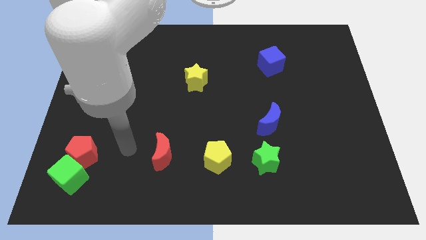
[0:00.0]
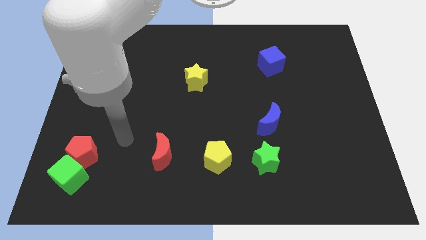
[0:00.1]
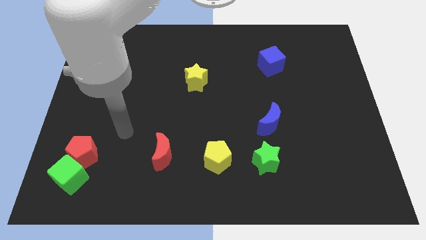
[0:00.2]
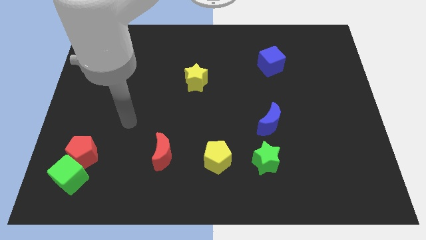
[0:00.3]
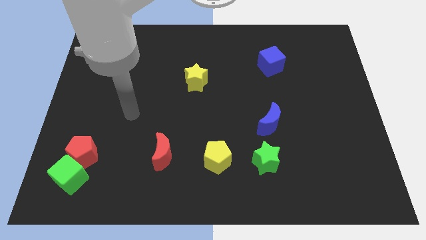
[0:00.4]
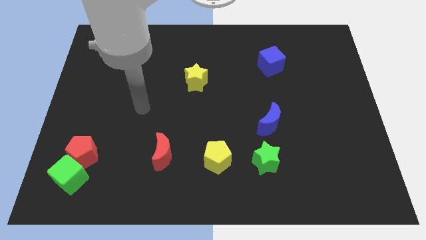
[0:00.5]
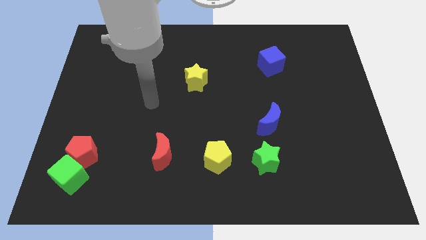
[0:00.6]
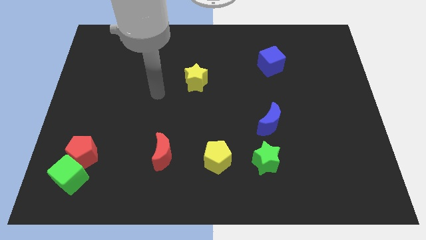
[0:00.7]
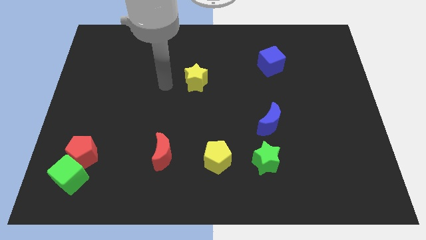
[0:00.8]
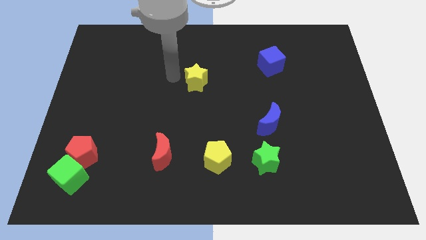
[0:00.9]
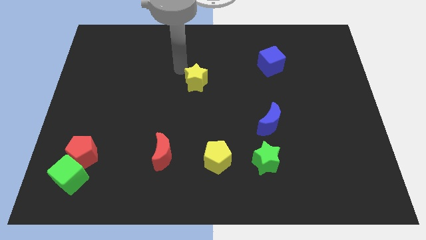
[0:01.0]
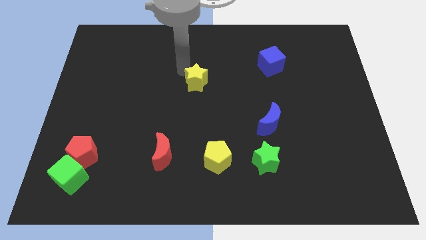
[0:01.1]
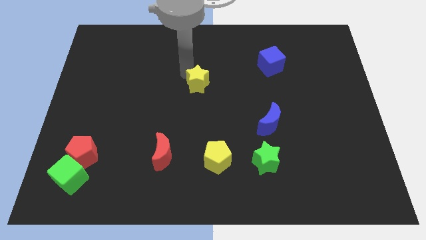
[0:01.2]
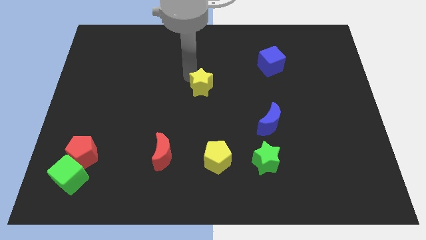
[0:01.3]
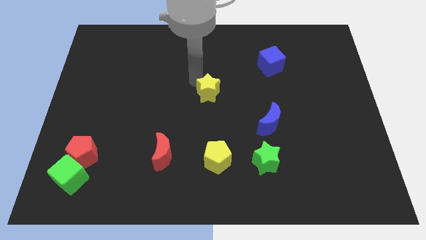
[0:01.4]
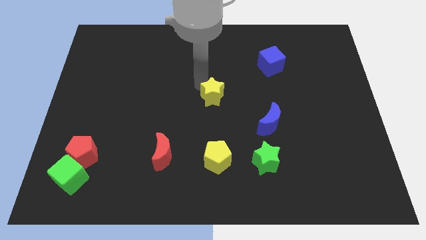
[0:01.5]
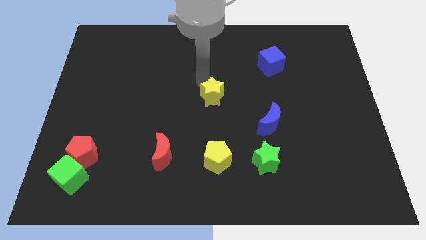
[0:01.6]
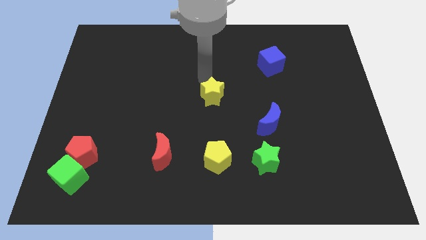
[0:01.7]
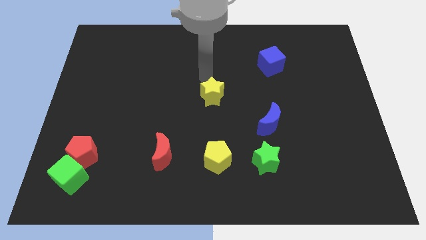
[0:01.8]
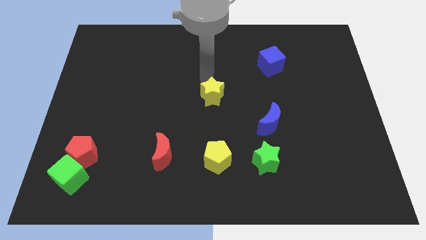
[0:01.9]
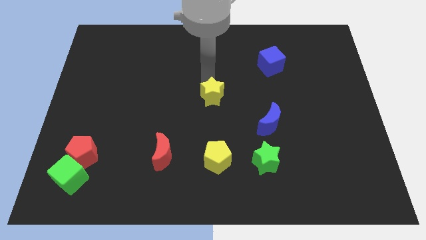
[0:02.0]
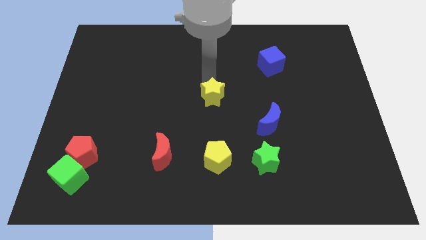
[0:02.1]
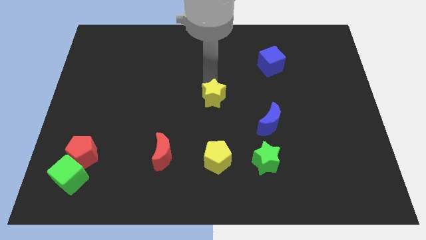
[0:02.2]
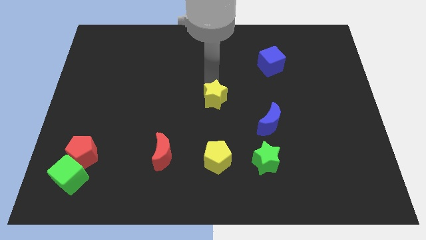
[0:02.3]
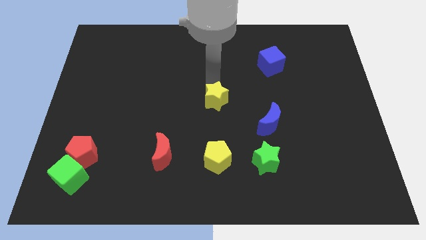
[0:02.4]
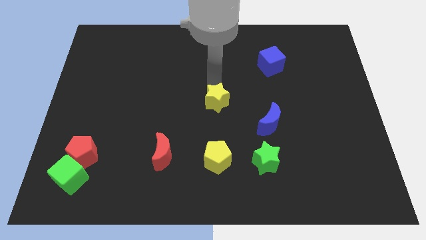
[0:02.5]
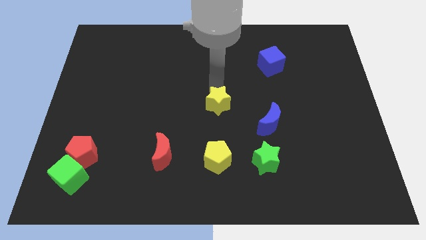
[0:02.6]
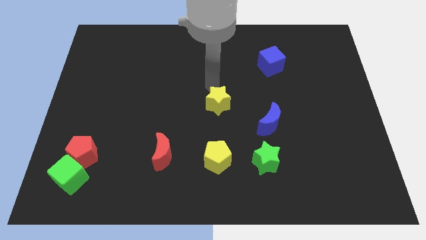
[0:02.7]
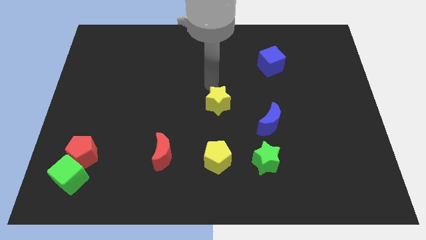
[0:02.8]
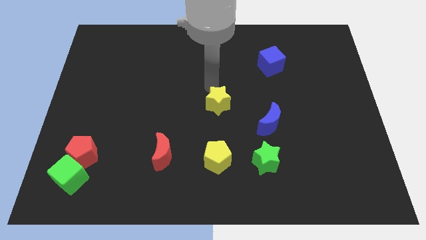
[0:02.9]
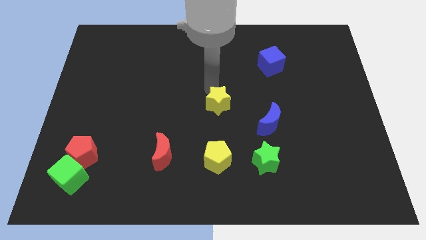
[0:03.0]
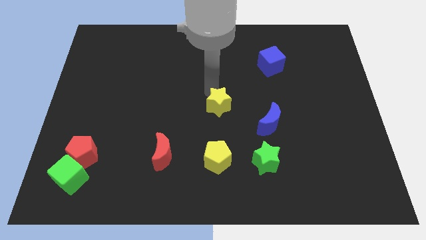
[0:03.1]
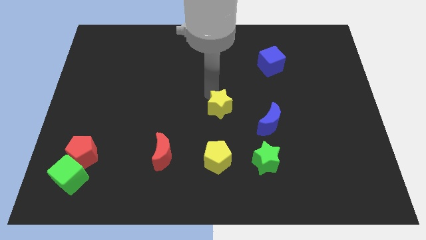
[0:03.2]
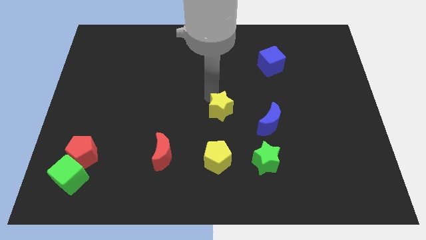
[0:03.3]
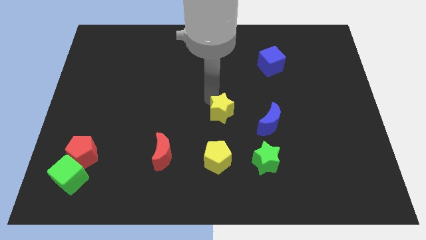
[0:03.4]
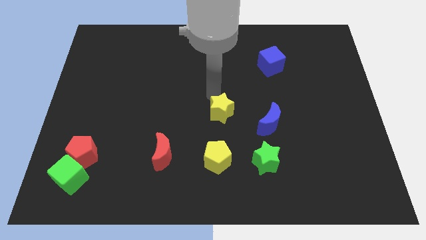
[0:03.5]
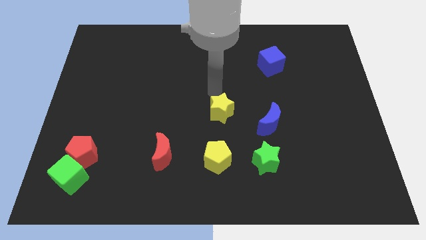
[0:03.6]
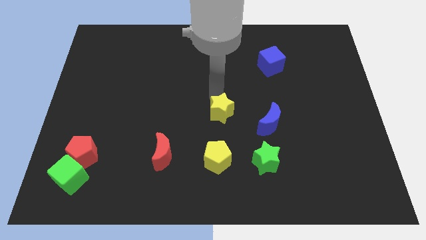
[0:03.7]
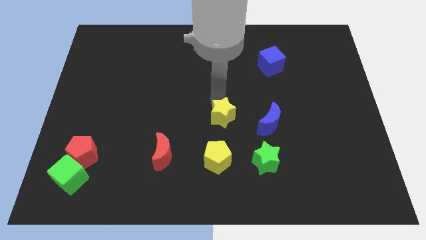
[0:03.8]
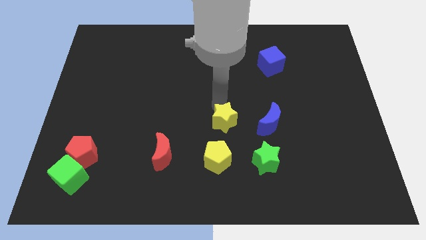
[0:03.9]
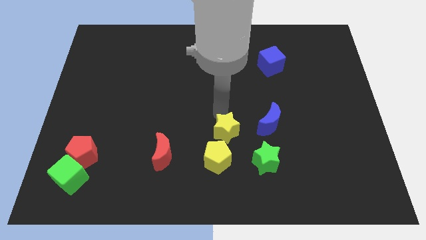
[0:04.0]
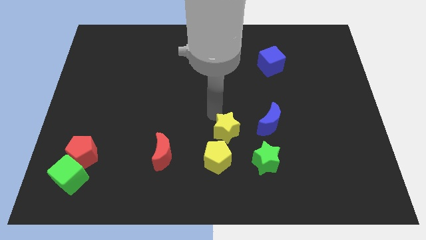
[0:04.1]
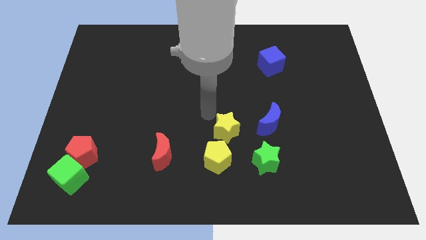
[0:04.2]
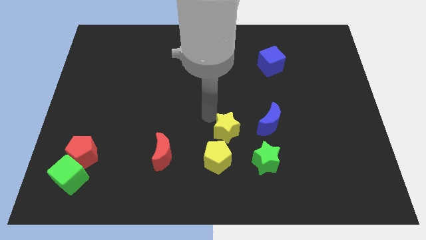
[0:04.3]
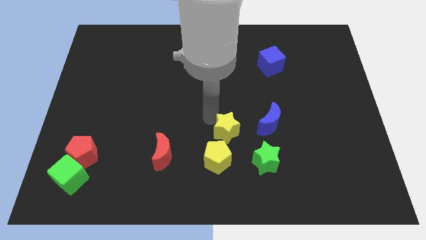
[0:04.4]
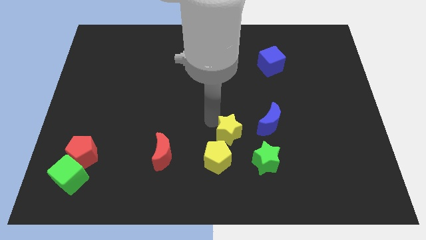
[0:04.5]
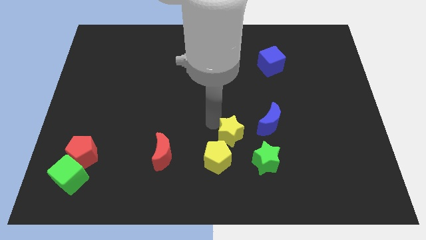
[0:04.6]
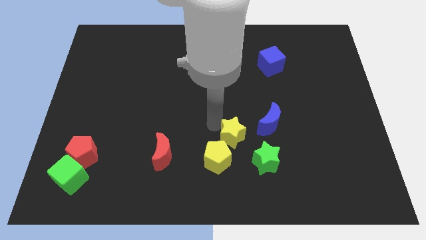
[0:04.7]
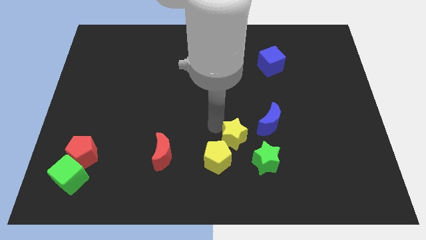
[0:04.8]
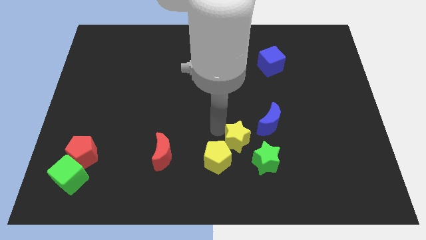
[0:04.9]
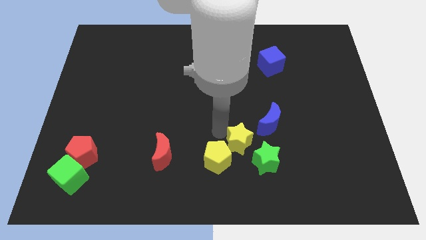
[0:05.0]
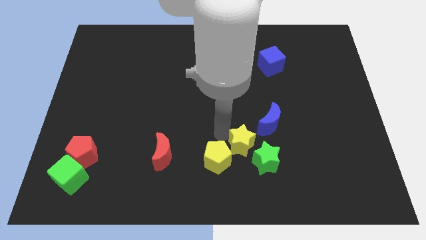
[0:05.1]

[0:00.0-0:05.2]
push the yellow star towards the green star
